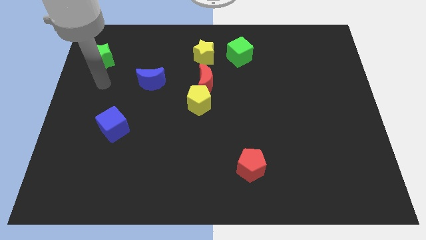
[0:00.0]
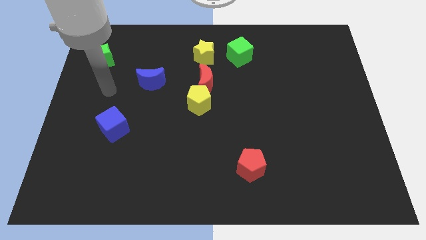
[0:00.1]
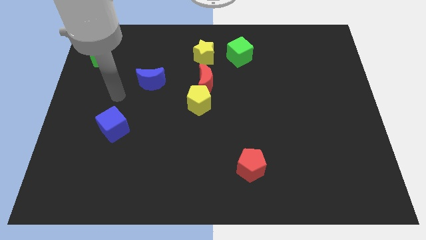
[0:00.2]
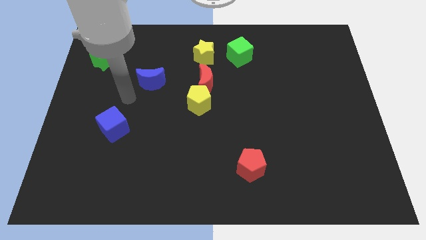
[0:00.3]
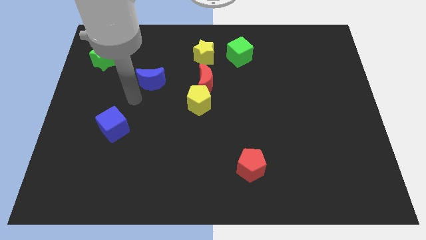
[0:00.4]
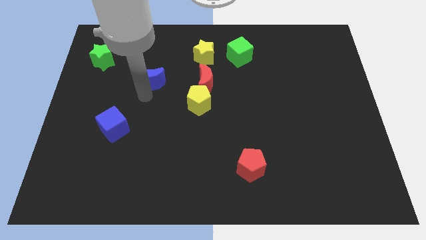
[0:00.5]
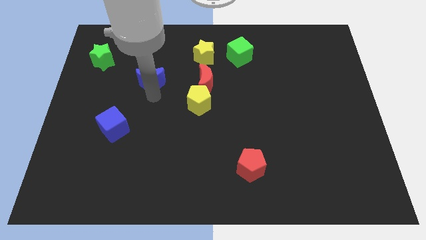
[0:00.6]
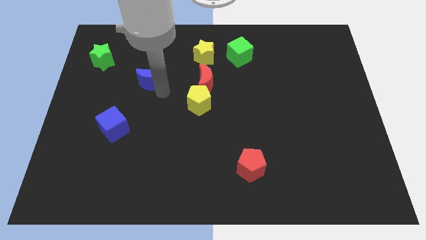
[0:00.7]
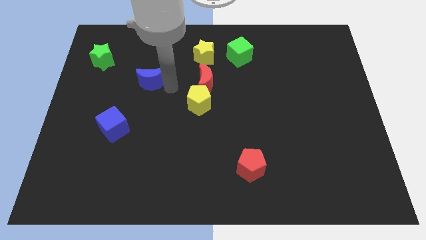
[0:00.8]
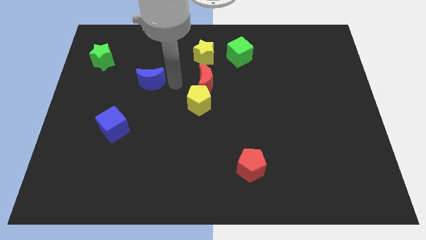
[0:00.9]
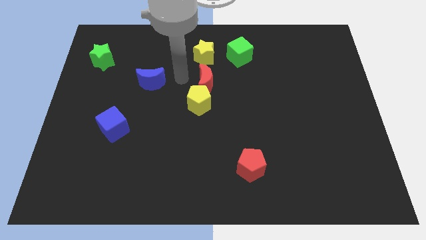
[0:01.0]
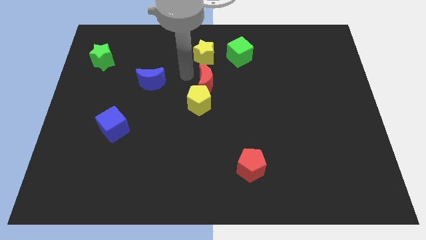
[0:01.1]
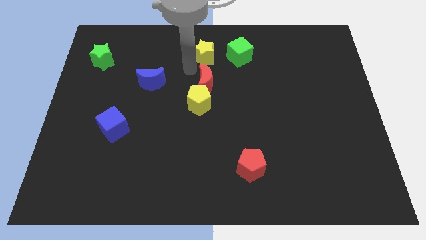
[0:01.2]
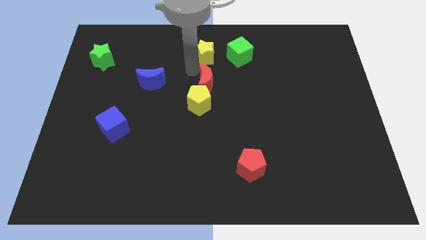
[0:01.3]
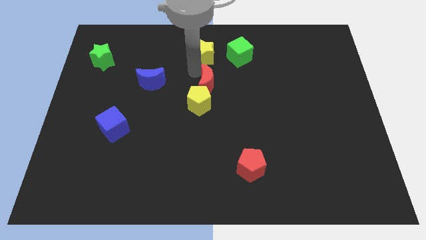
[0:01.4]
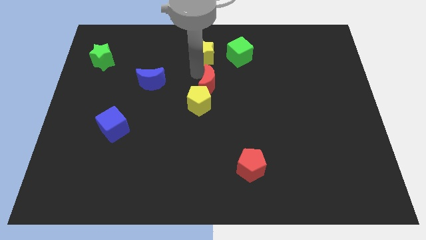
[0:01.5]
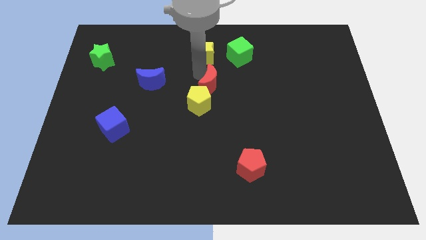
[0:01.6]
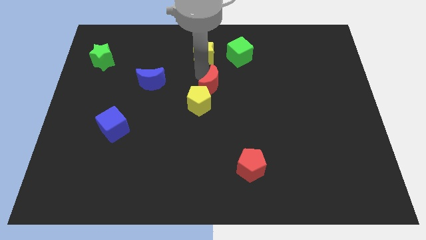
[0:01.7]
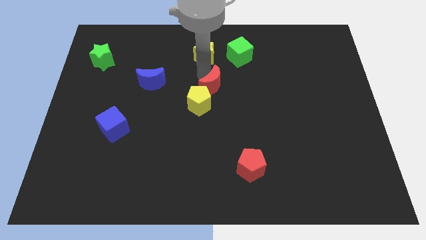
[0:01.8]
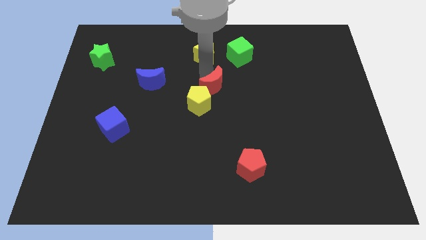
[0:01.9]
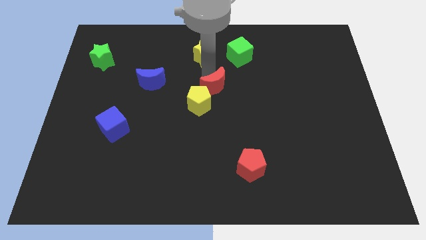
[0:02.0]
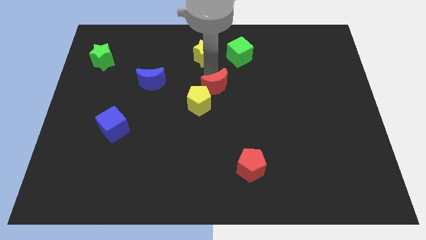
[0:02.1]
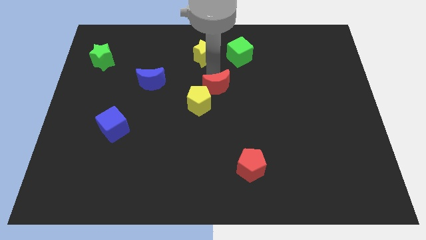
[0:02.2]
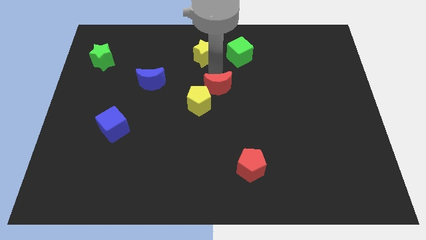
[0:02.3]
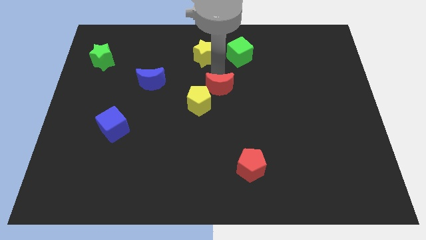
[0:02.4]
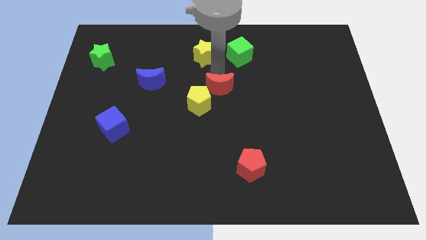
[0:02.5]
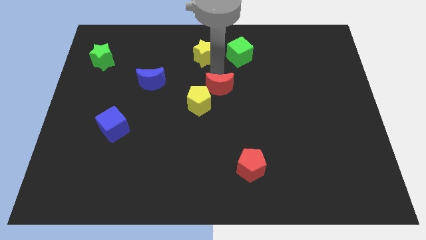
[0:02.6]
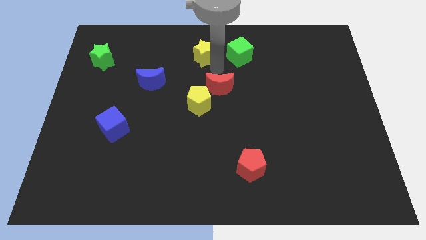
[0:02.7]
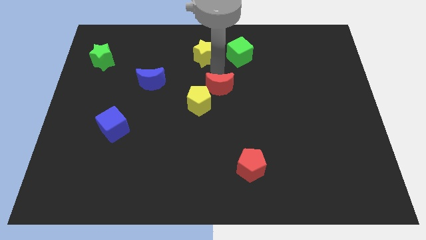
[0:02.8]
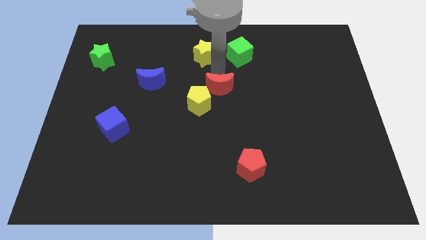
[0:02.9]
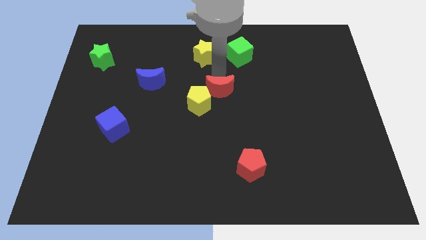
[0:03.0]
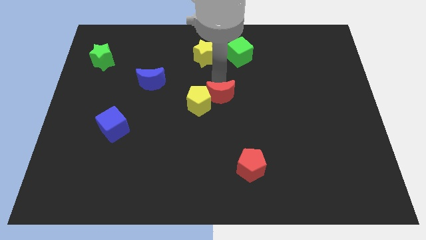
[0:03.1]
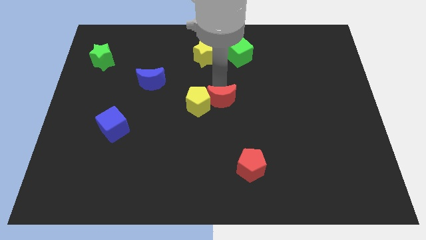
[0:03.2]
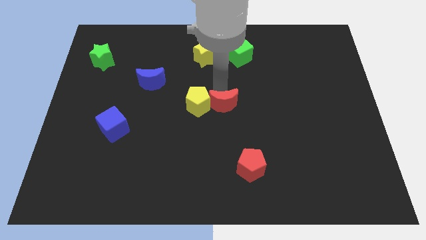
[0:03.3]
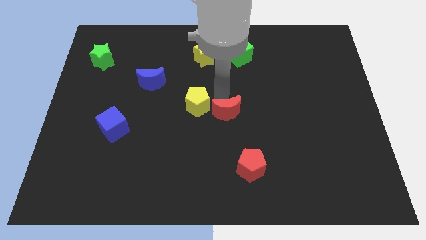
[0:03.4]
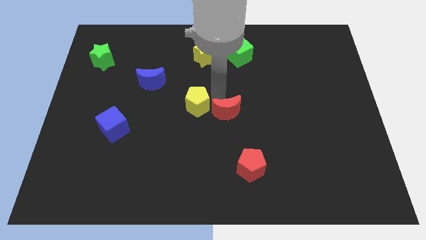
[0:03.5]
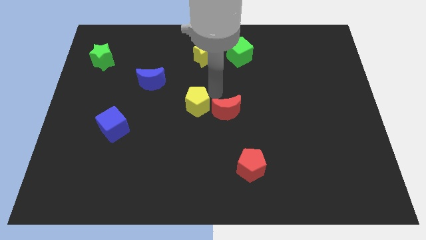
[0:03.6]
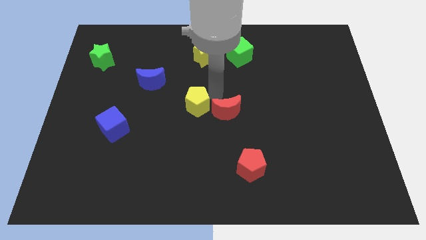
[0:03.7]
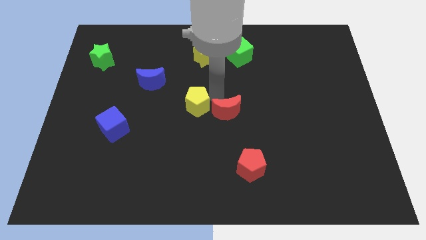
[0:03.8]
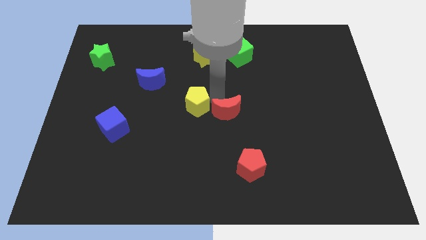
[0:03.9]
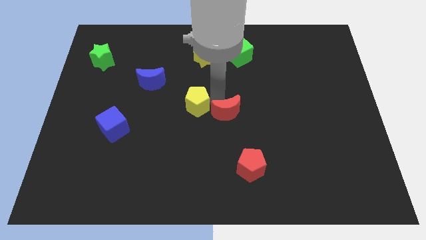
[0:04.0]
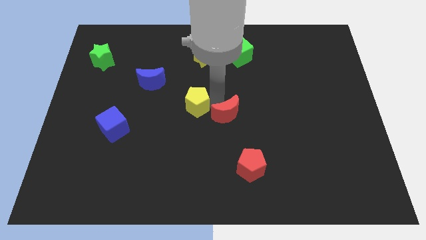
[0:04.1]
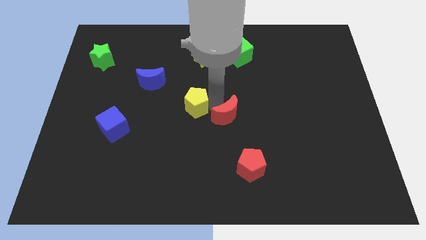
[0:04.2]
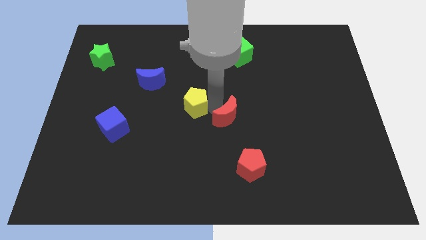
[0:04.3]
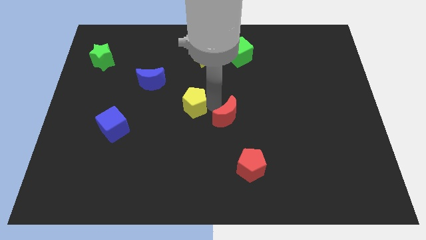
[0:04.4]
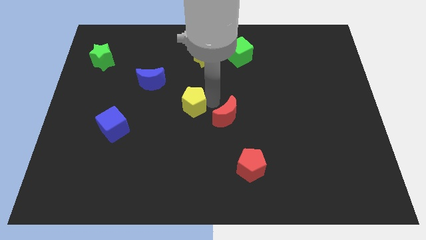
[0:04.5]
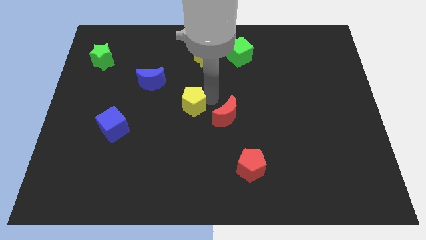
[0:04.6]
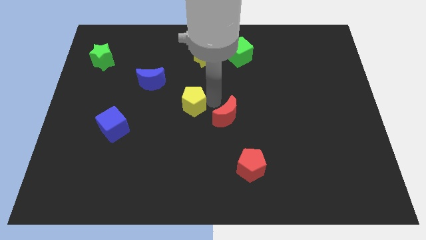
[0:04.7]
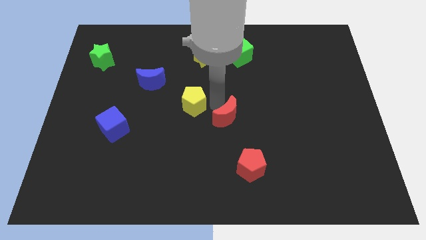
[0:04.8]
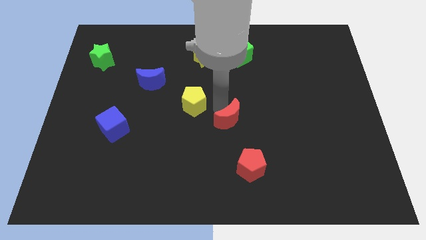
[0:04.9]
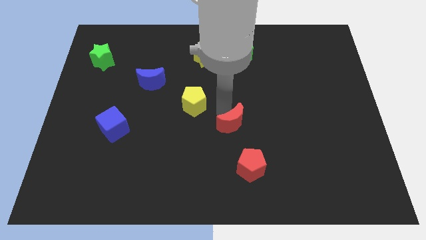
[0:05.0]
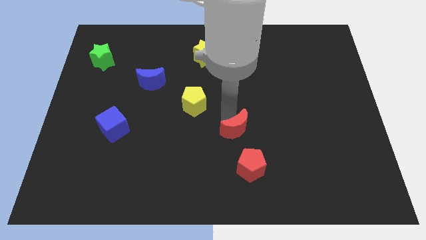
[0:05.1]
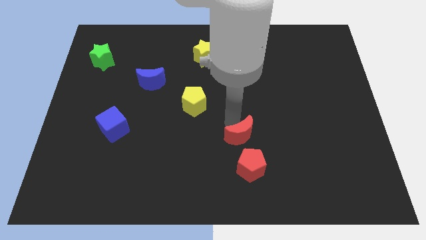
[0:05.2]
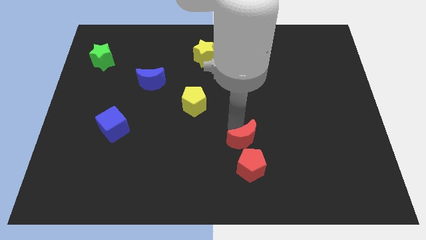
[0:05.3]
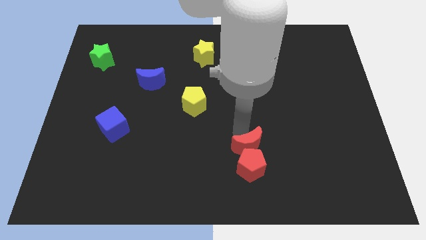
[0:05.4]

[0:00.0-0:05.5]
push the red moon next to the red pentagon

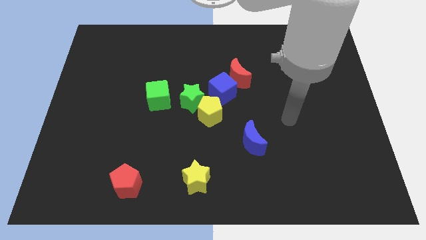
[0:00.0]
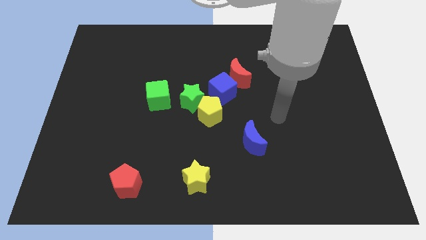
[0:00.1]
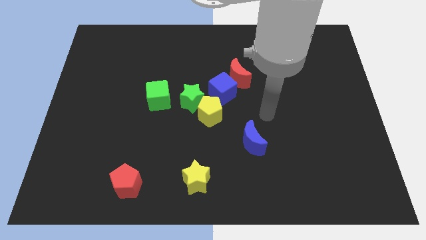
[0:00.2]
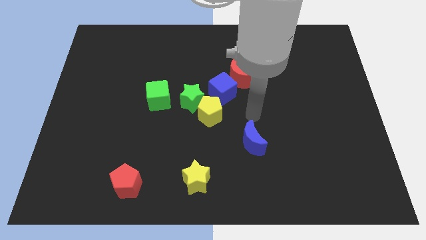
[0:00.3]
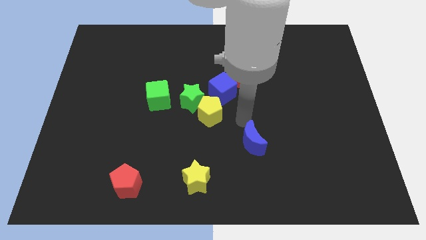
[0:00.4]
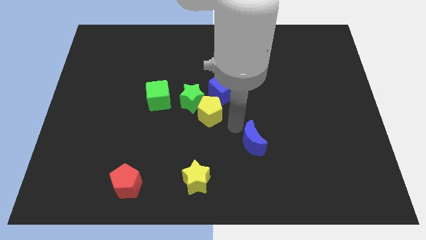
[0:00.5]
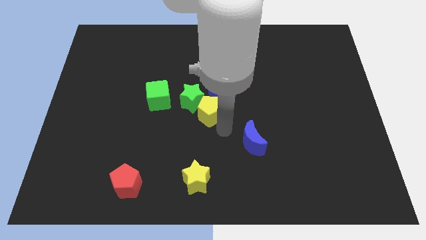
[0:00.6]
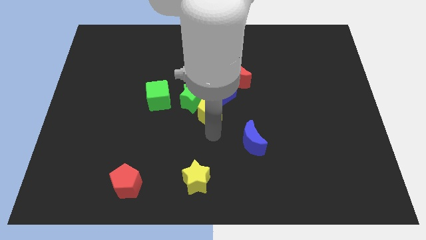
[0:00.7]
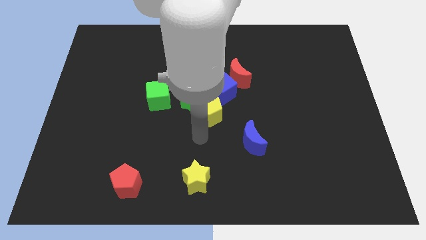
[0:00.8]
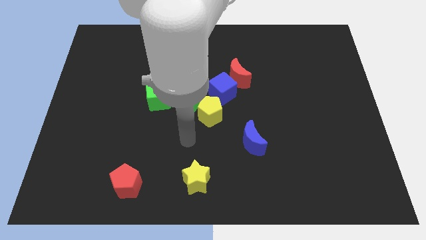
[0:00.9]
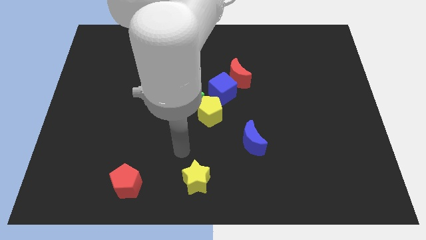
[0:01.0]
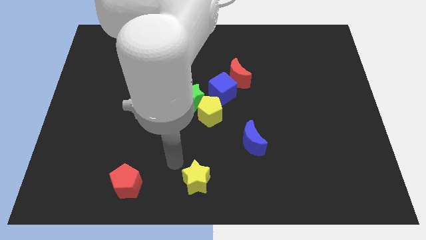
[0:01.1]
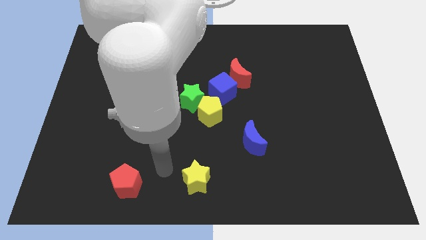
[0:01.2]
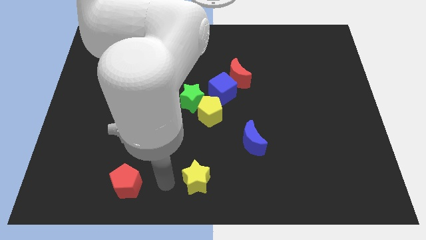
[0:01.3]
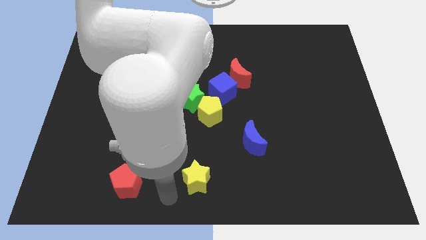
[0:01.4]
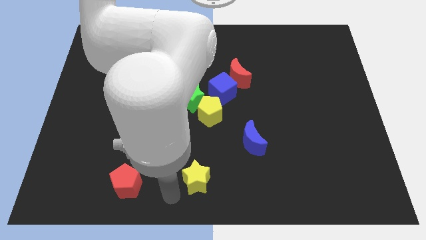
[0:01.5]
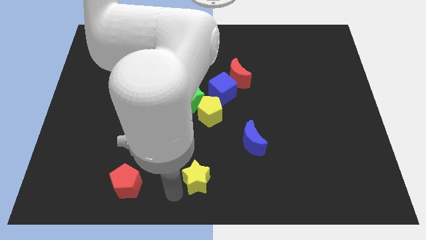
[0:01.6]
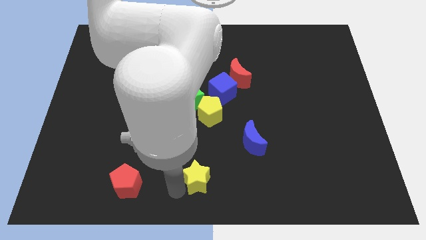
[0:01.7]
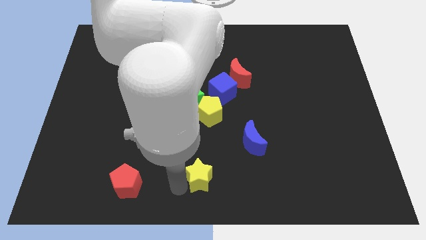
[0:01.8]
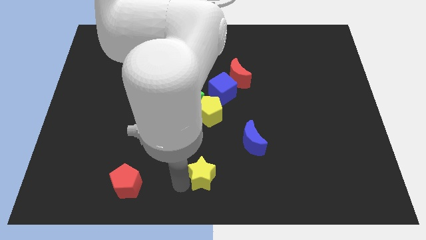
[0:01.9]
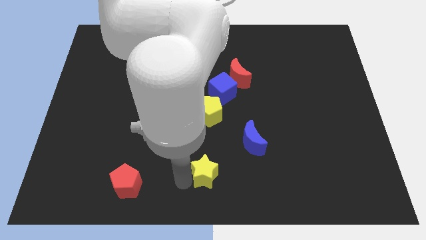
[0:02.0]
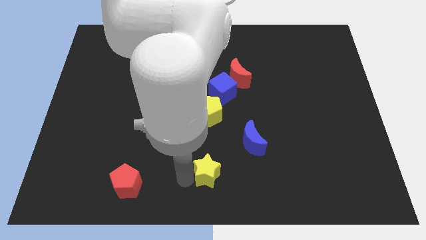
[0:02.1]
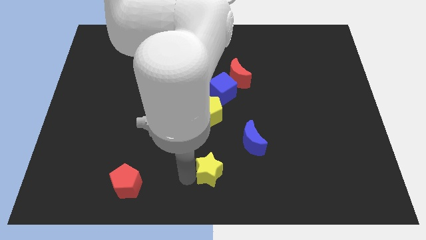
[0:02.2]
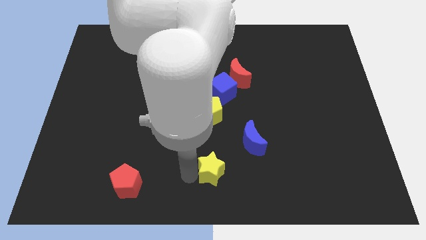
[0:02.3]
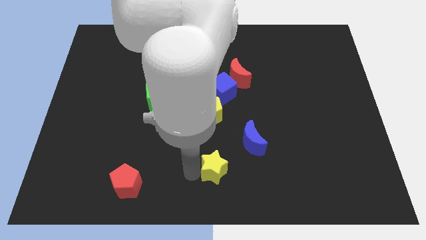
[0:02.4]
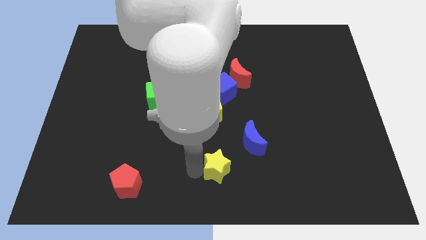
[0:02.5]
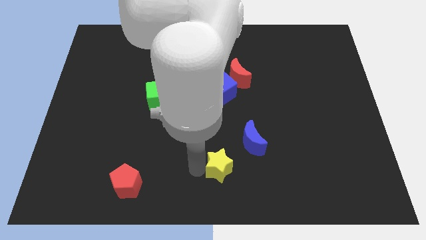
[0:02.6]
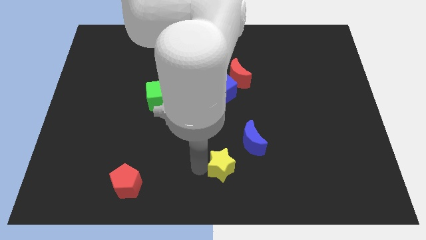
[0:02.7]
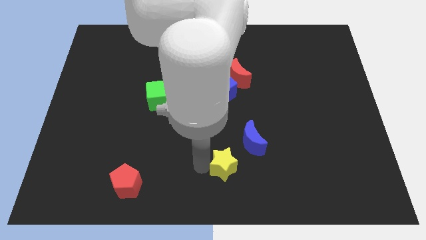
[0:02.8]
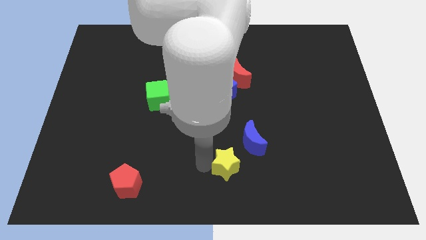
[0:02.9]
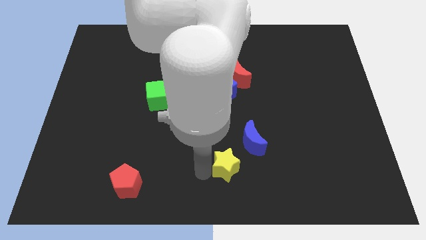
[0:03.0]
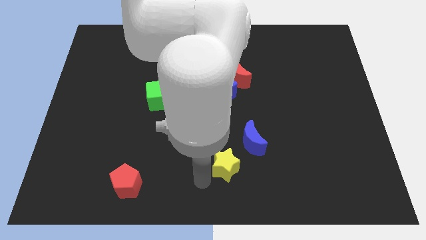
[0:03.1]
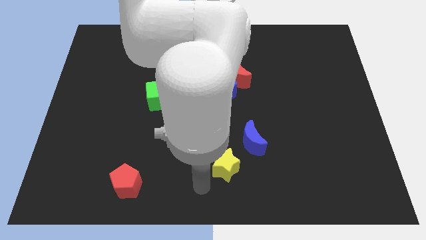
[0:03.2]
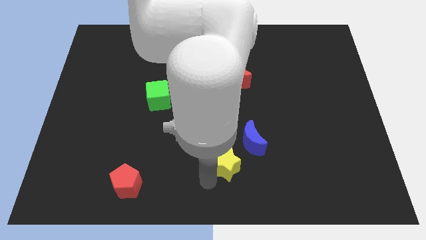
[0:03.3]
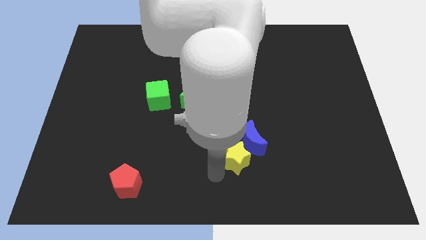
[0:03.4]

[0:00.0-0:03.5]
push the yellow star to the blue moon
